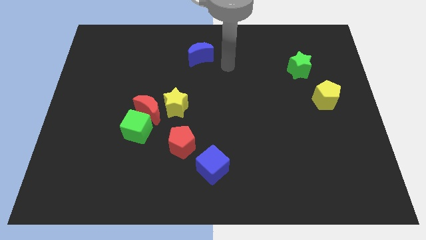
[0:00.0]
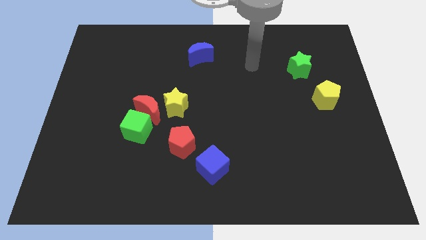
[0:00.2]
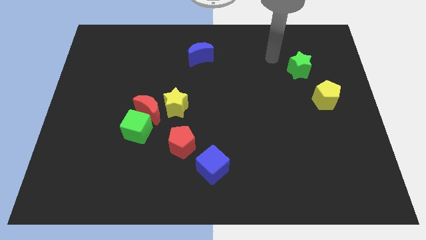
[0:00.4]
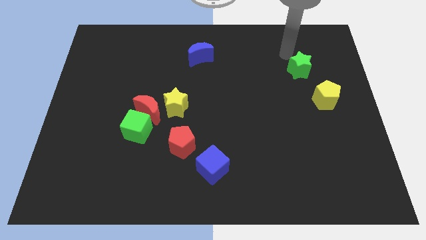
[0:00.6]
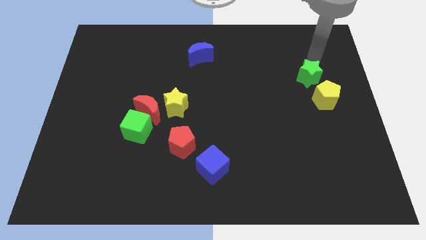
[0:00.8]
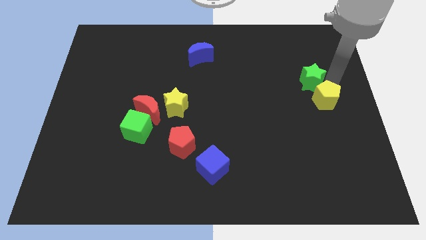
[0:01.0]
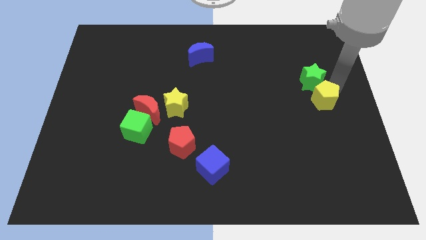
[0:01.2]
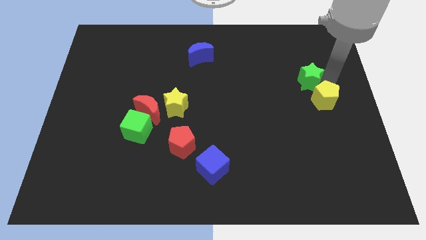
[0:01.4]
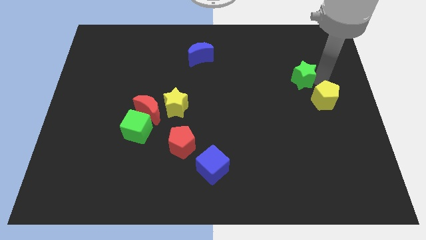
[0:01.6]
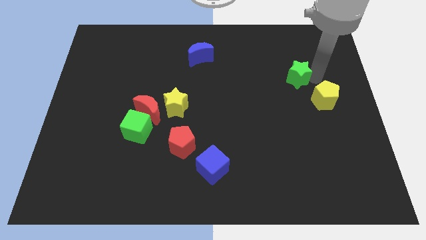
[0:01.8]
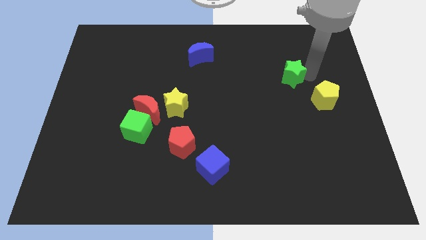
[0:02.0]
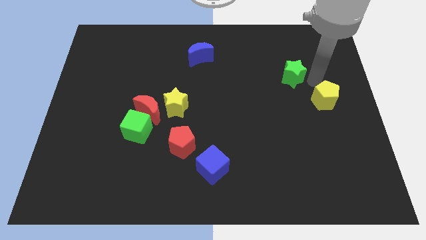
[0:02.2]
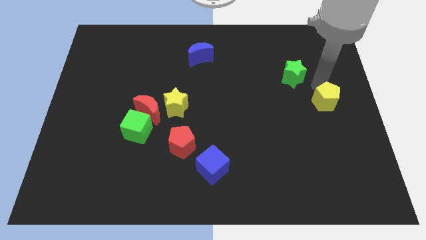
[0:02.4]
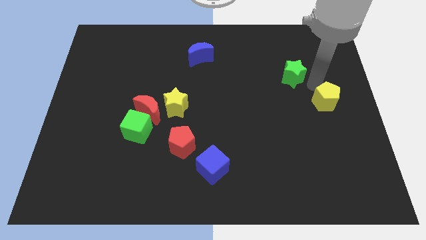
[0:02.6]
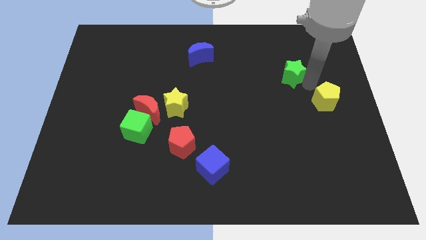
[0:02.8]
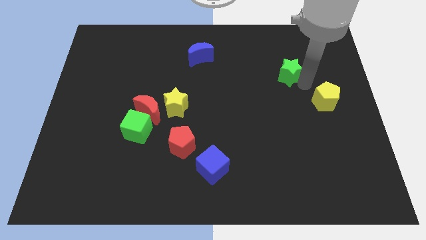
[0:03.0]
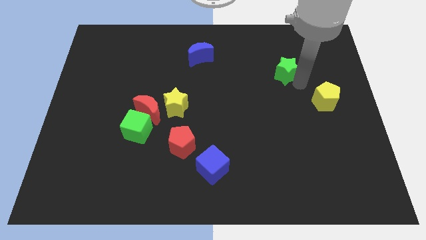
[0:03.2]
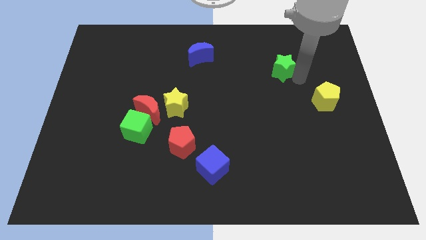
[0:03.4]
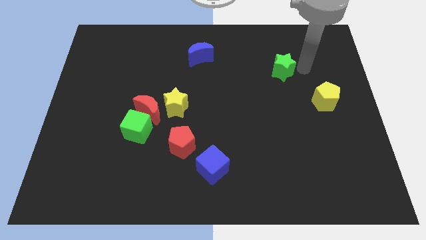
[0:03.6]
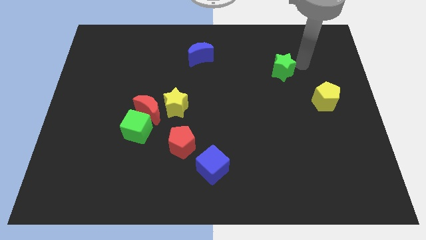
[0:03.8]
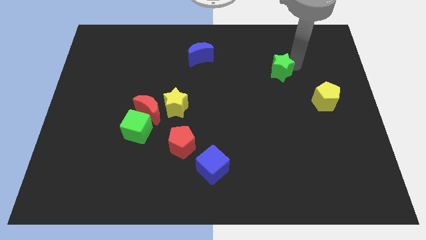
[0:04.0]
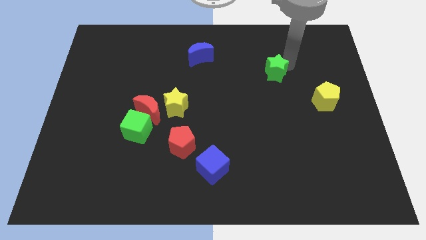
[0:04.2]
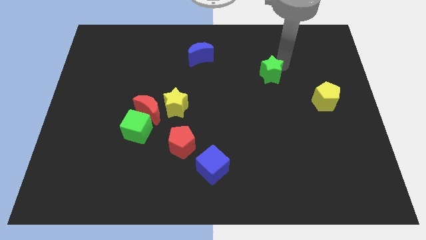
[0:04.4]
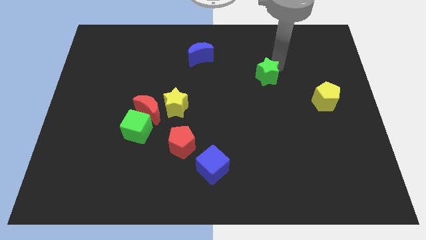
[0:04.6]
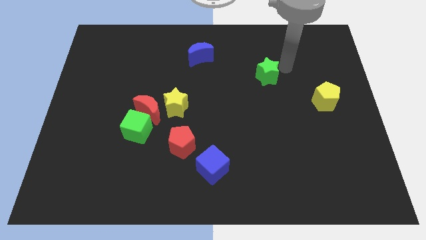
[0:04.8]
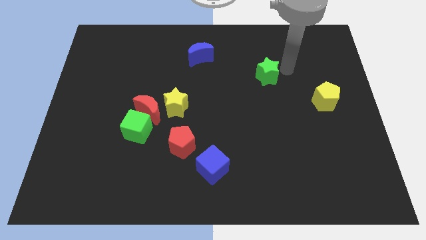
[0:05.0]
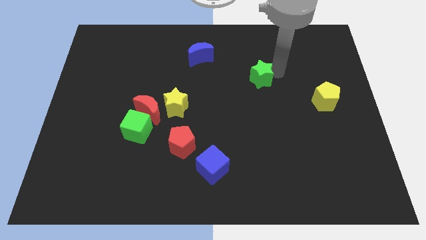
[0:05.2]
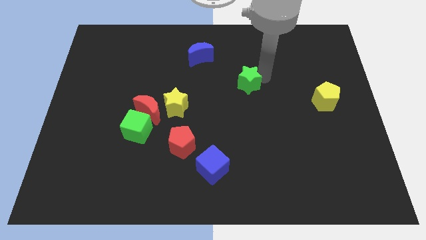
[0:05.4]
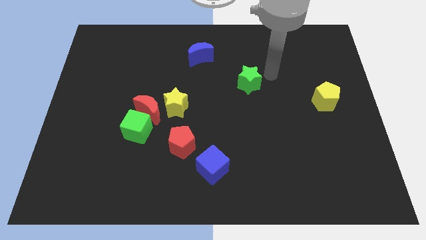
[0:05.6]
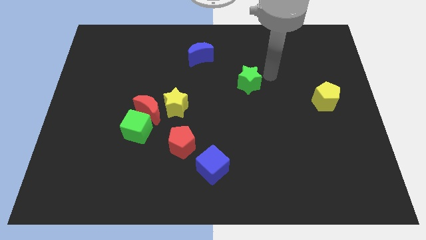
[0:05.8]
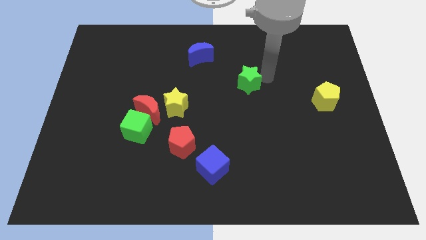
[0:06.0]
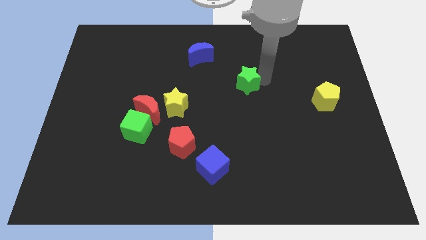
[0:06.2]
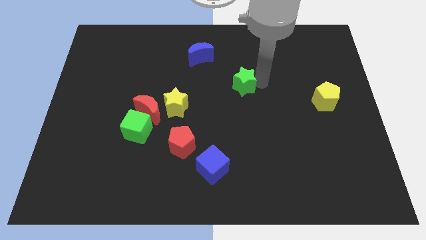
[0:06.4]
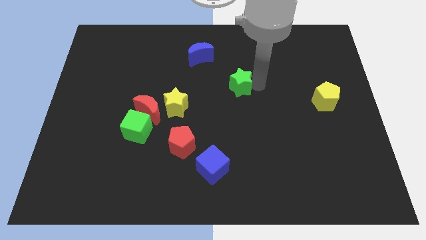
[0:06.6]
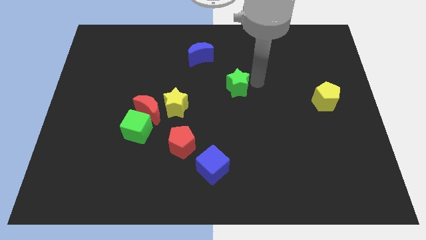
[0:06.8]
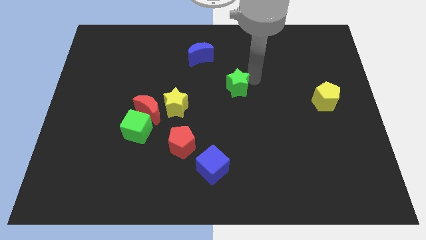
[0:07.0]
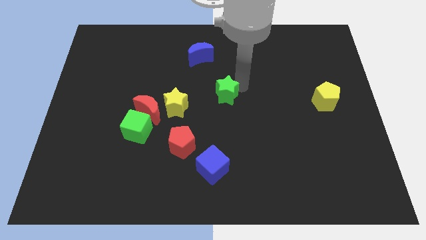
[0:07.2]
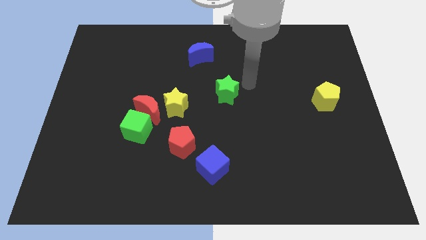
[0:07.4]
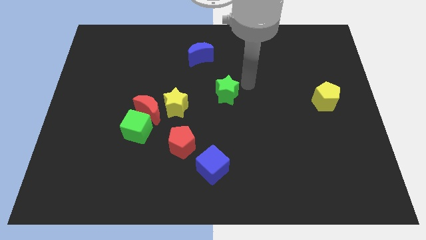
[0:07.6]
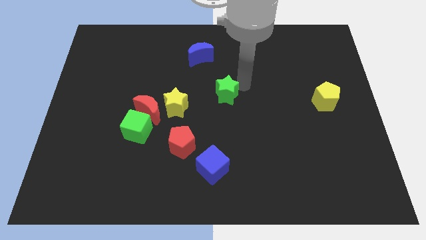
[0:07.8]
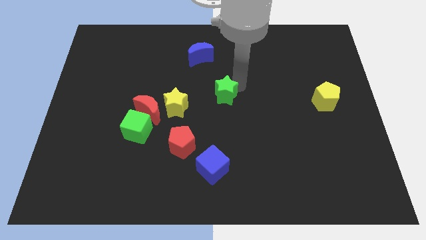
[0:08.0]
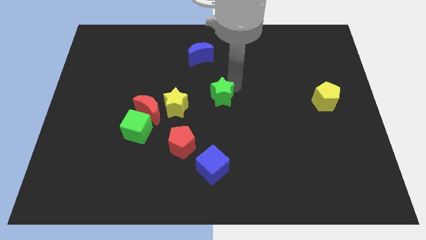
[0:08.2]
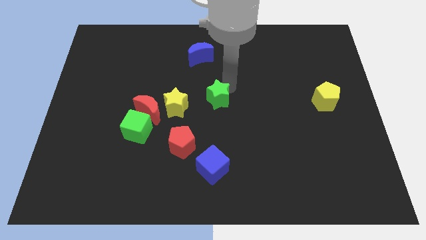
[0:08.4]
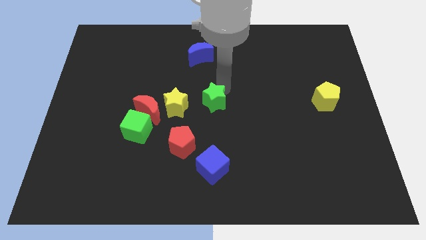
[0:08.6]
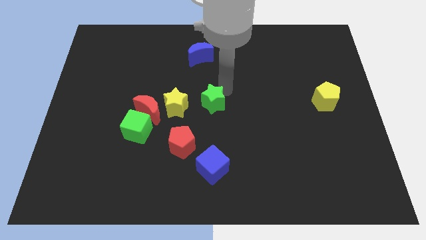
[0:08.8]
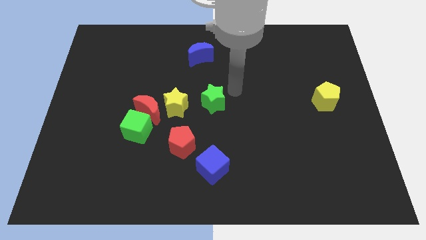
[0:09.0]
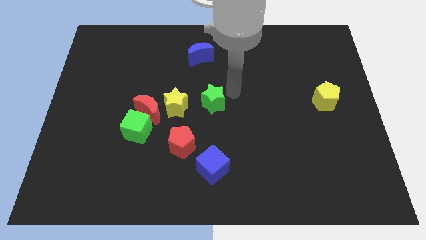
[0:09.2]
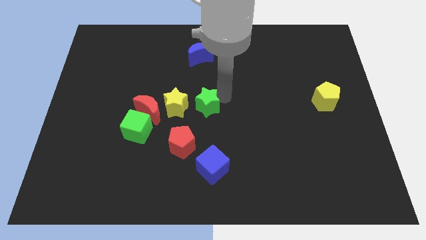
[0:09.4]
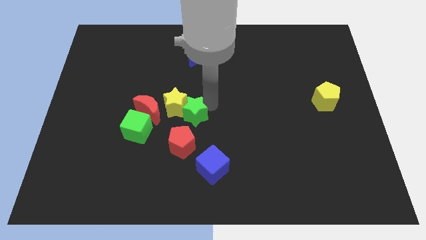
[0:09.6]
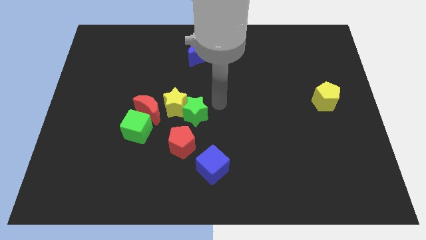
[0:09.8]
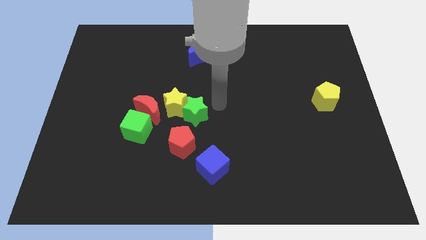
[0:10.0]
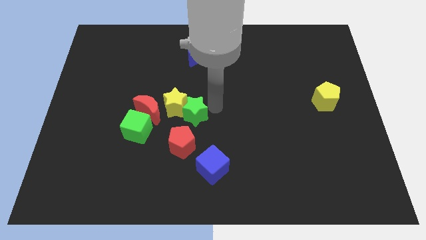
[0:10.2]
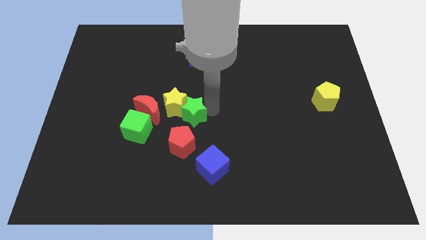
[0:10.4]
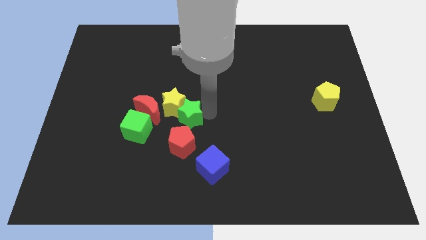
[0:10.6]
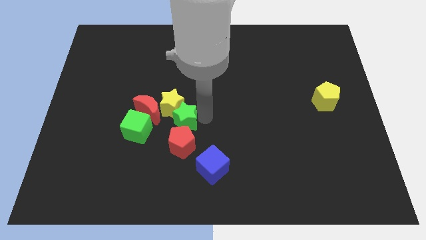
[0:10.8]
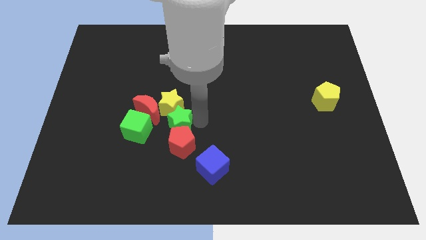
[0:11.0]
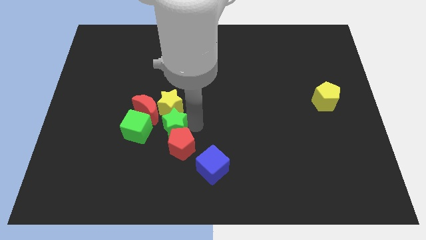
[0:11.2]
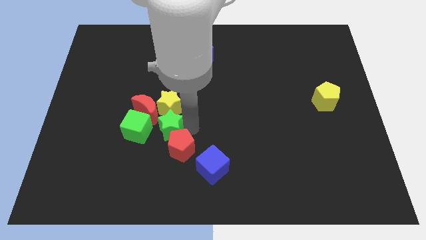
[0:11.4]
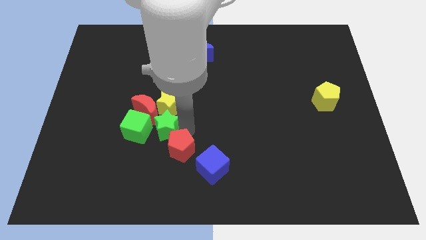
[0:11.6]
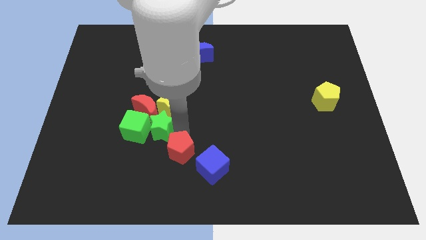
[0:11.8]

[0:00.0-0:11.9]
put the green star next to the green cube
